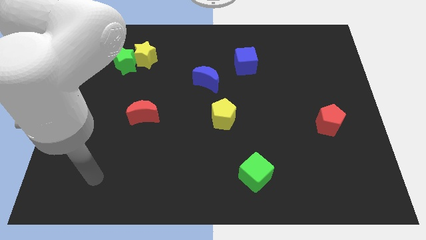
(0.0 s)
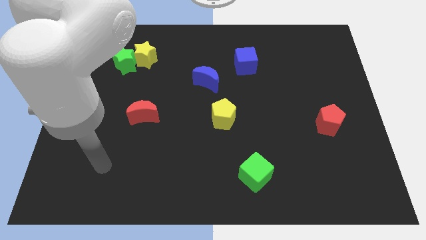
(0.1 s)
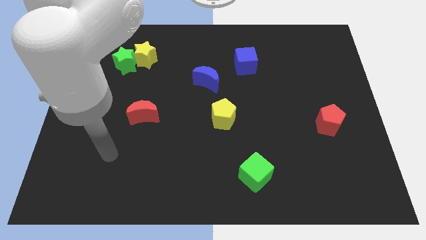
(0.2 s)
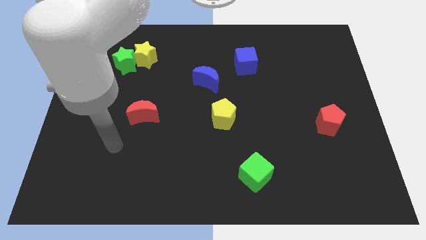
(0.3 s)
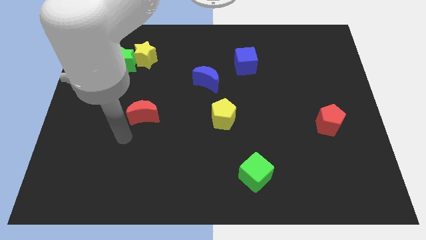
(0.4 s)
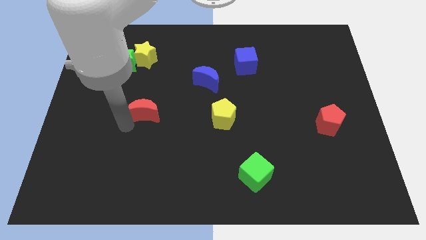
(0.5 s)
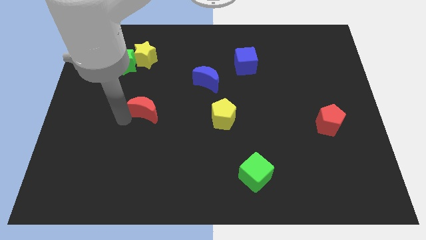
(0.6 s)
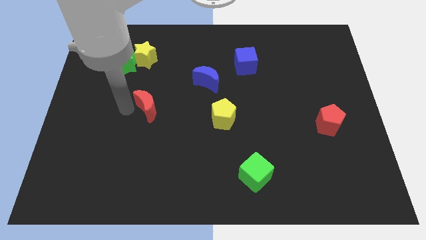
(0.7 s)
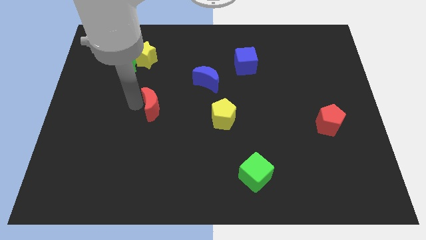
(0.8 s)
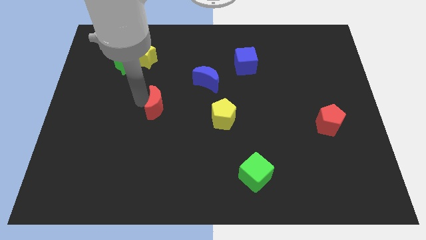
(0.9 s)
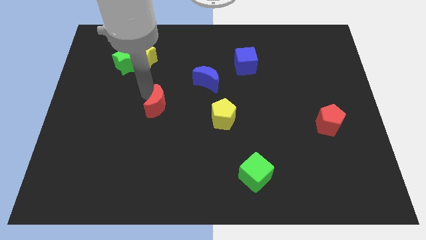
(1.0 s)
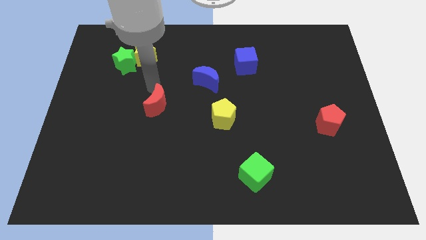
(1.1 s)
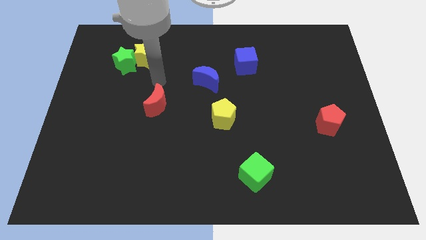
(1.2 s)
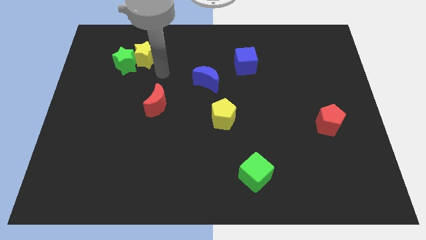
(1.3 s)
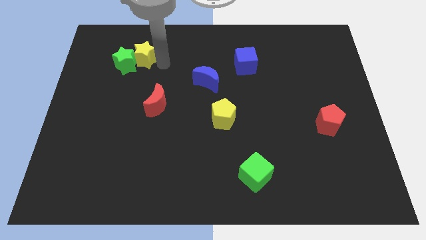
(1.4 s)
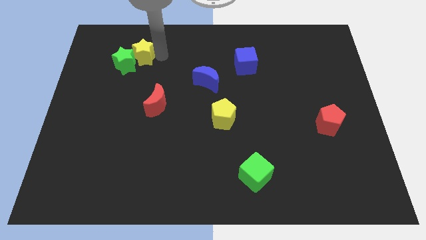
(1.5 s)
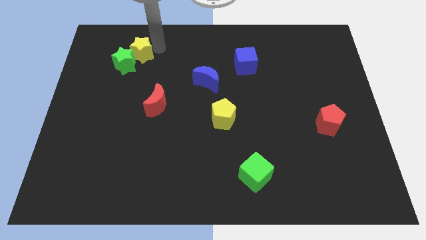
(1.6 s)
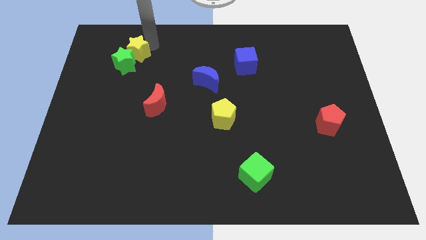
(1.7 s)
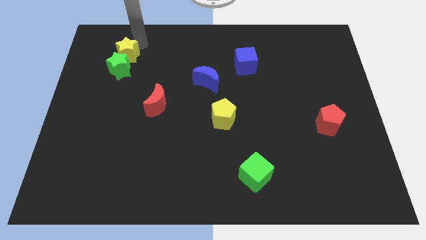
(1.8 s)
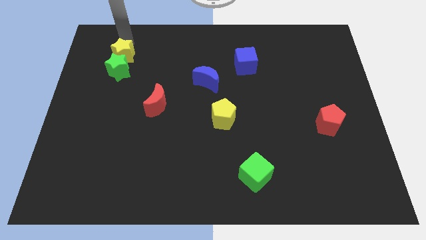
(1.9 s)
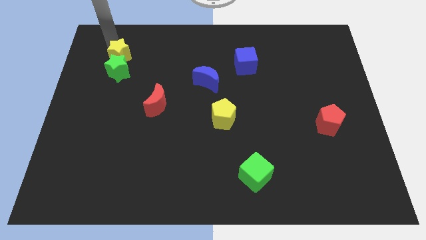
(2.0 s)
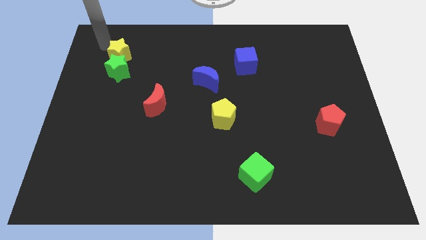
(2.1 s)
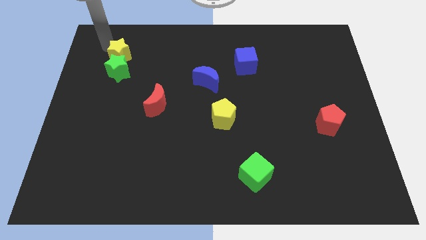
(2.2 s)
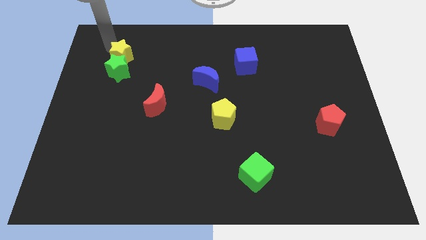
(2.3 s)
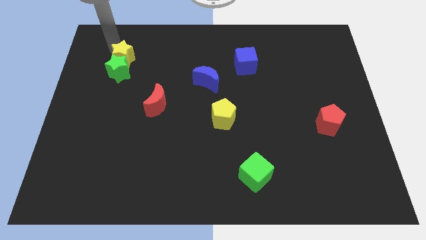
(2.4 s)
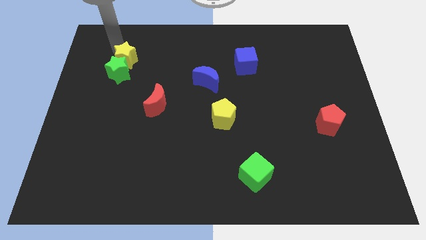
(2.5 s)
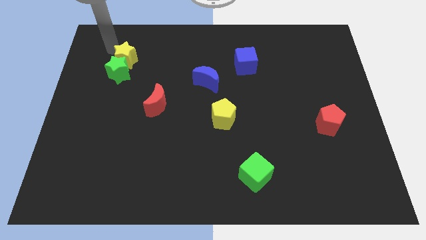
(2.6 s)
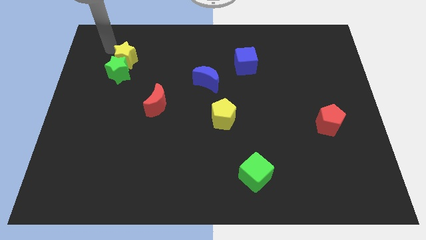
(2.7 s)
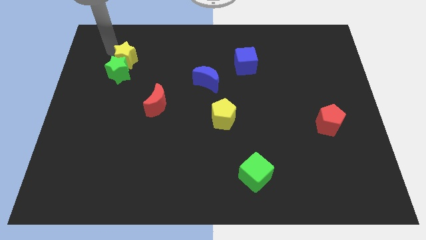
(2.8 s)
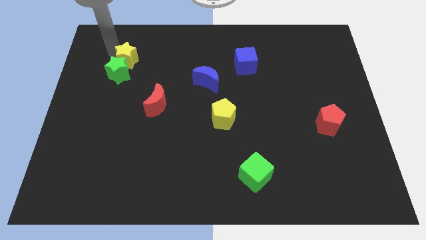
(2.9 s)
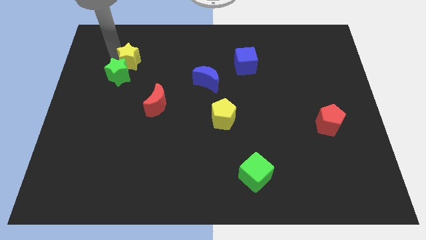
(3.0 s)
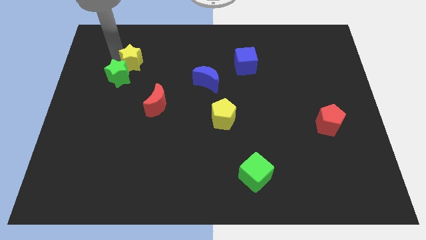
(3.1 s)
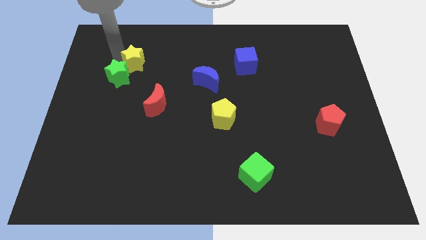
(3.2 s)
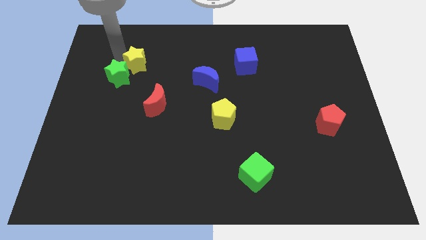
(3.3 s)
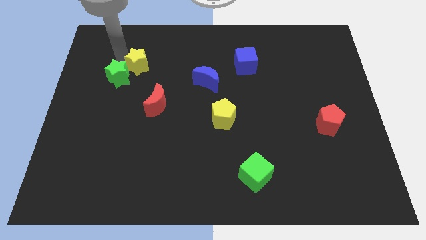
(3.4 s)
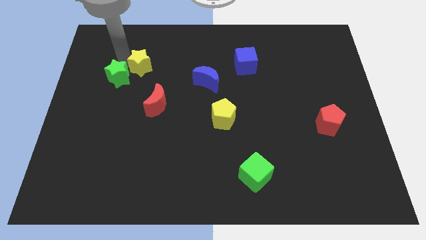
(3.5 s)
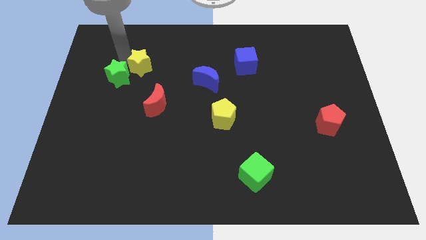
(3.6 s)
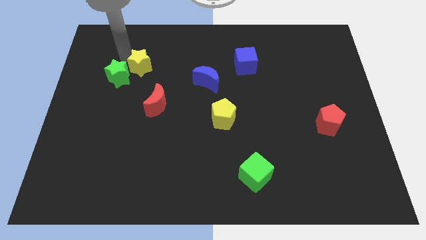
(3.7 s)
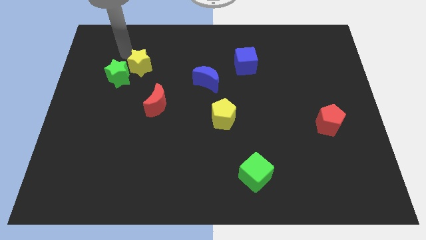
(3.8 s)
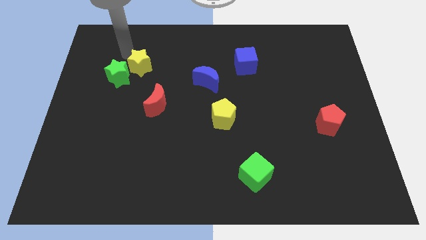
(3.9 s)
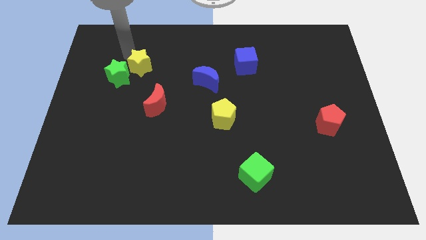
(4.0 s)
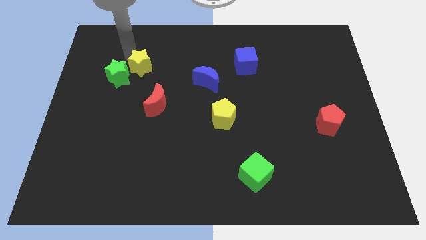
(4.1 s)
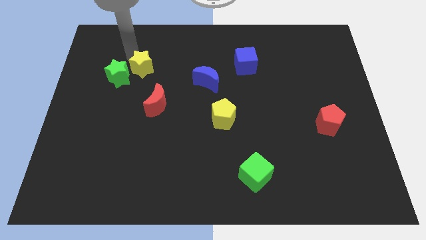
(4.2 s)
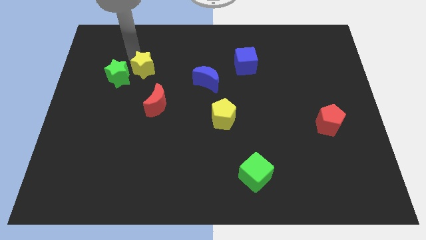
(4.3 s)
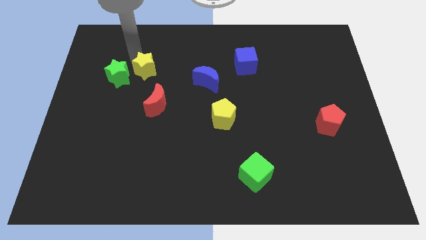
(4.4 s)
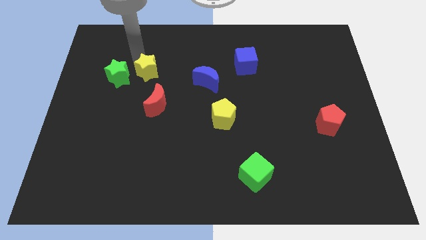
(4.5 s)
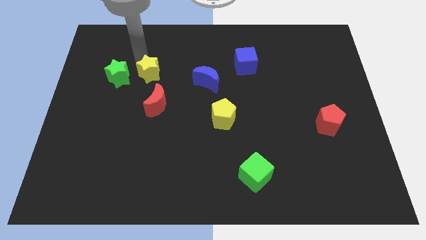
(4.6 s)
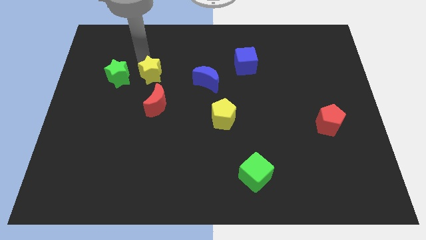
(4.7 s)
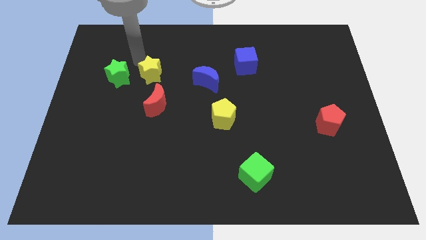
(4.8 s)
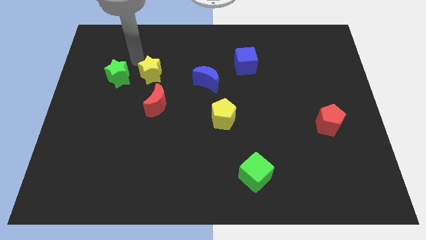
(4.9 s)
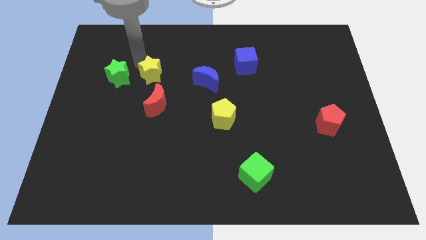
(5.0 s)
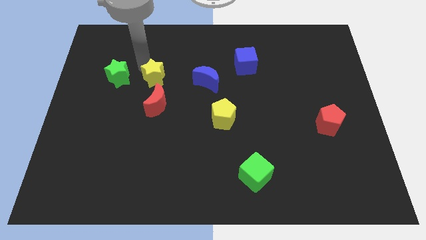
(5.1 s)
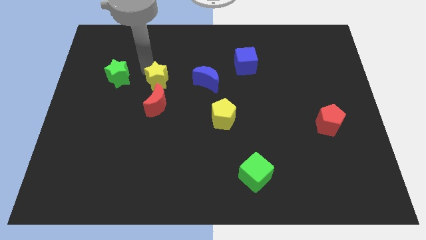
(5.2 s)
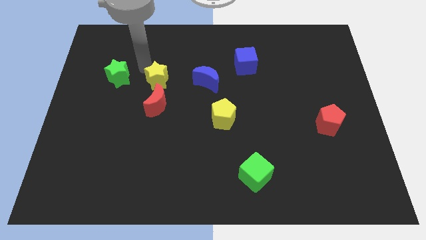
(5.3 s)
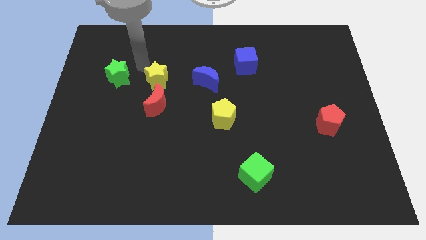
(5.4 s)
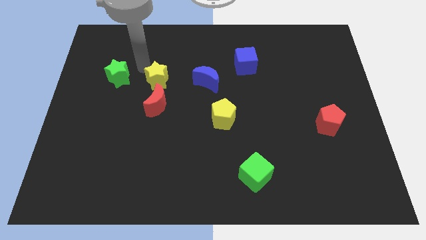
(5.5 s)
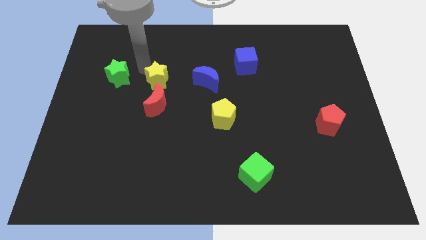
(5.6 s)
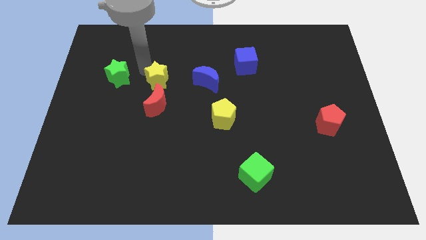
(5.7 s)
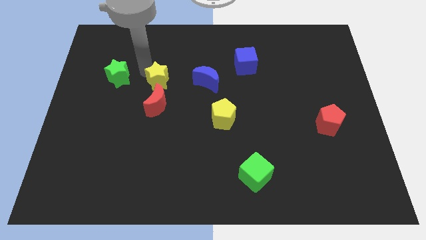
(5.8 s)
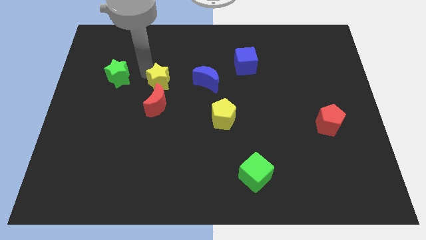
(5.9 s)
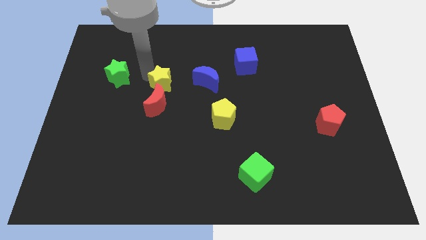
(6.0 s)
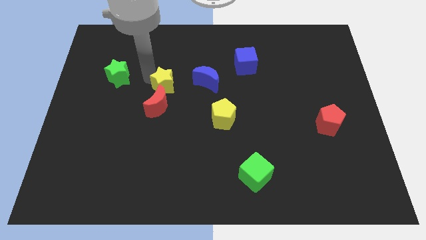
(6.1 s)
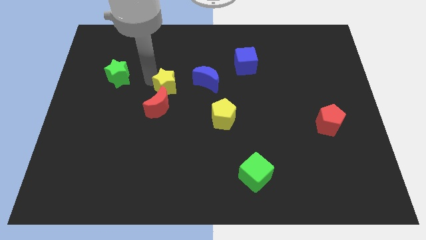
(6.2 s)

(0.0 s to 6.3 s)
move the yellow star to the center of the board
